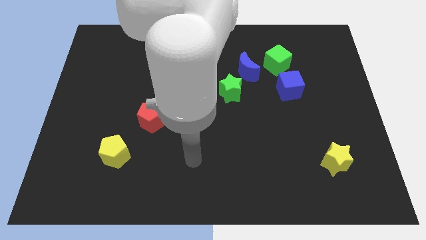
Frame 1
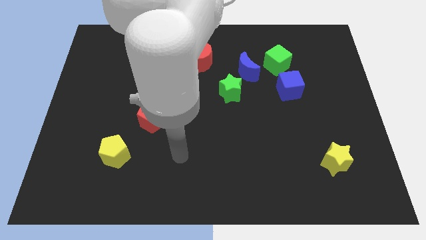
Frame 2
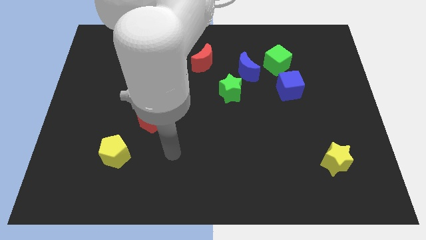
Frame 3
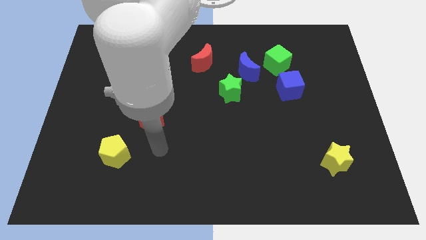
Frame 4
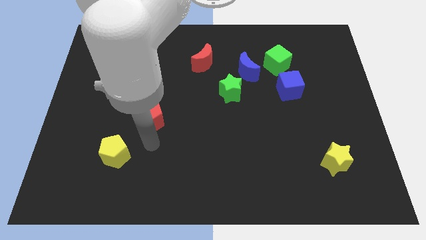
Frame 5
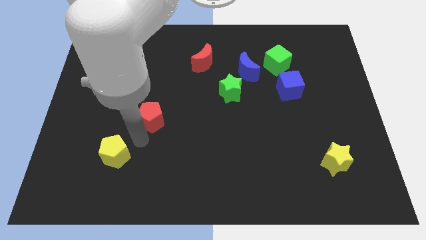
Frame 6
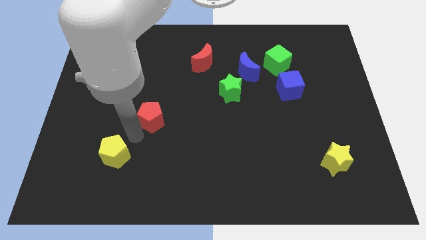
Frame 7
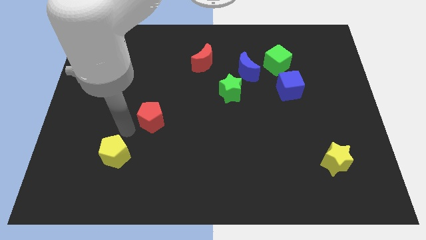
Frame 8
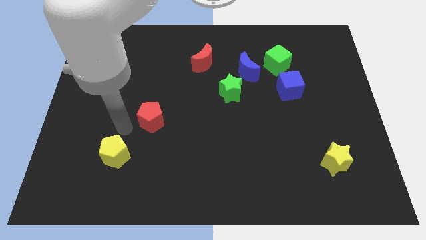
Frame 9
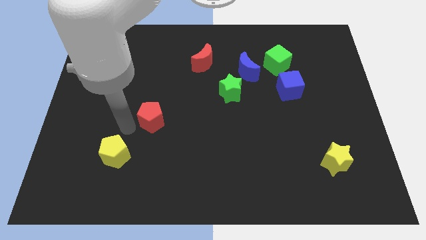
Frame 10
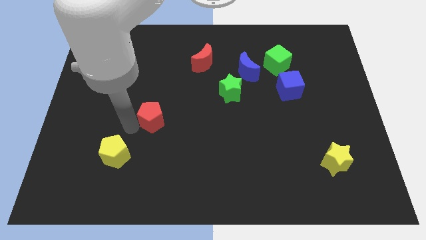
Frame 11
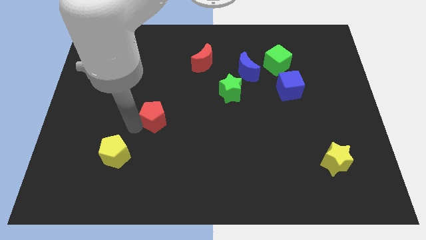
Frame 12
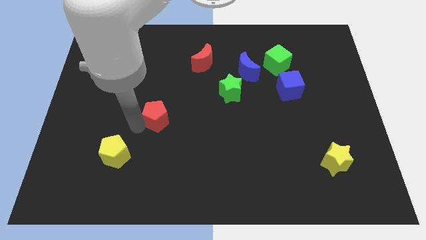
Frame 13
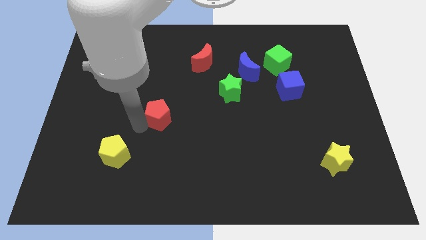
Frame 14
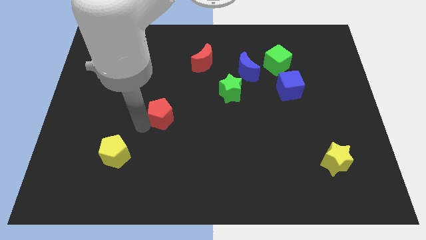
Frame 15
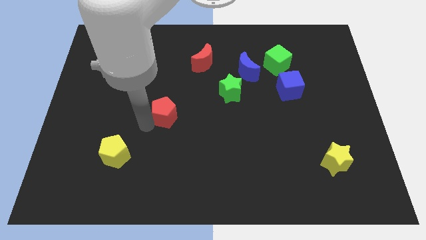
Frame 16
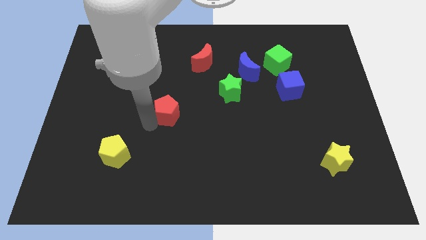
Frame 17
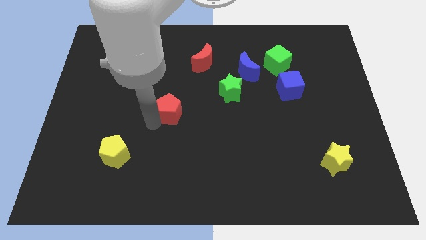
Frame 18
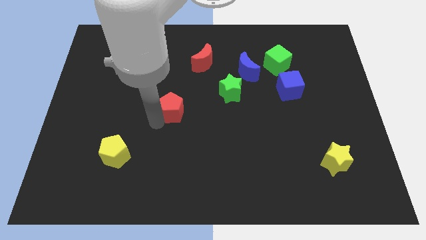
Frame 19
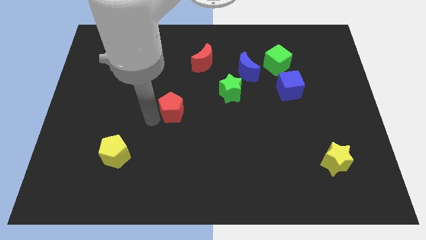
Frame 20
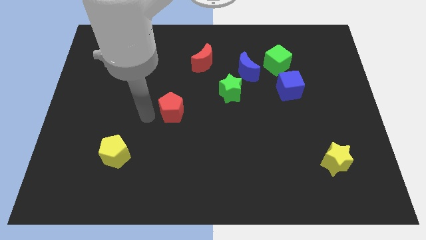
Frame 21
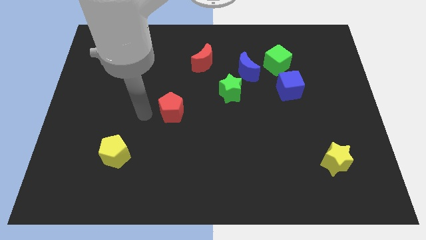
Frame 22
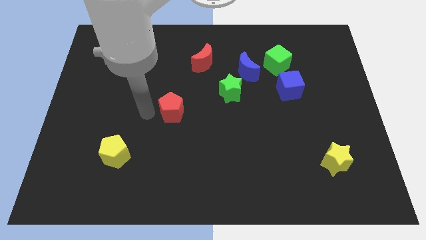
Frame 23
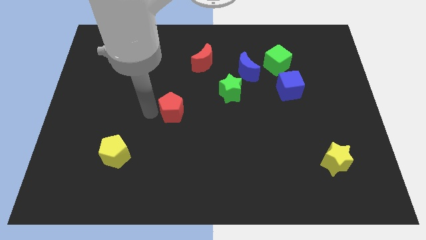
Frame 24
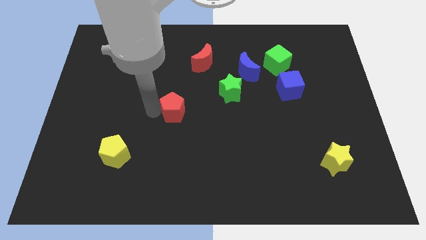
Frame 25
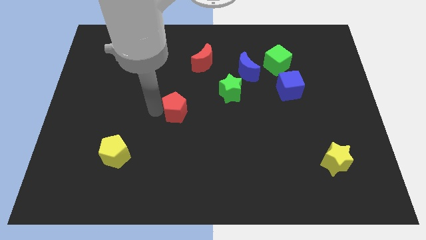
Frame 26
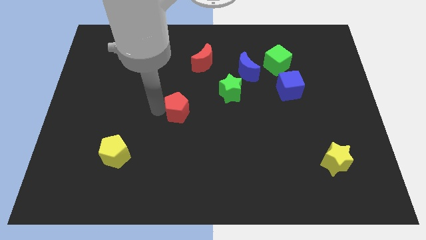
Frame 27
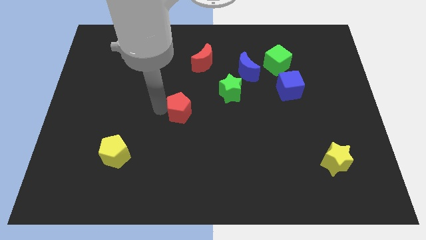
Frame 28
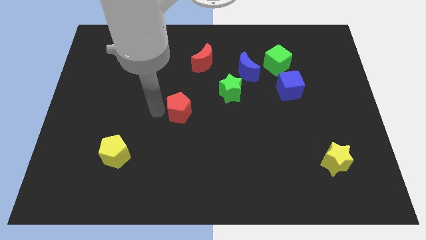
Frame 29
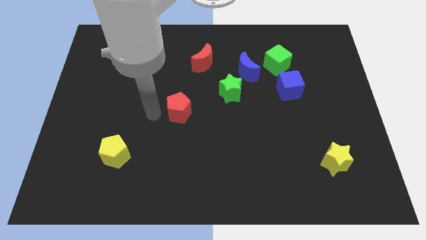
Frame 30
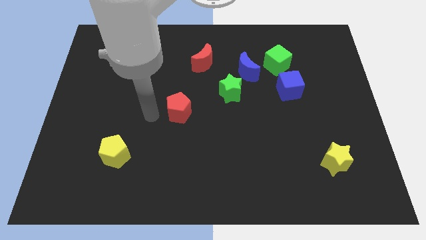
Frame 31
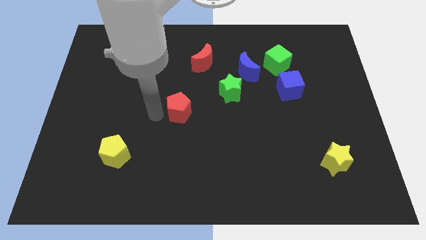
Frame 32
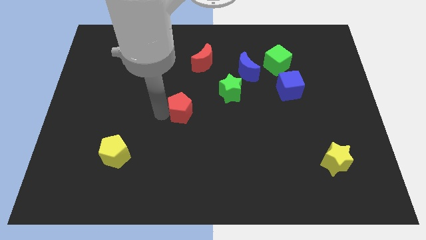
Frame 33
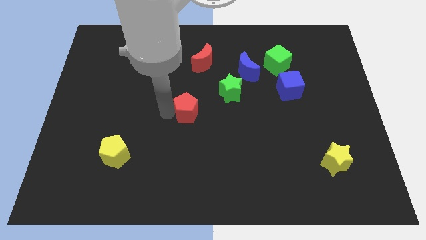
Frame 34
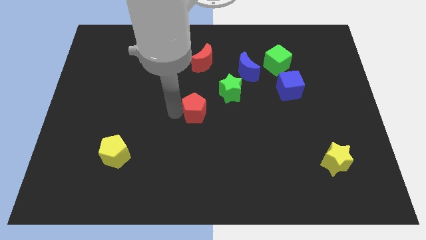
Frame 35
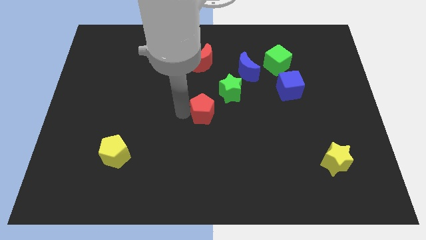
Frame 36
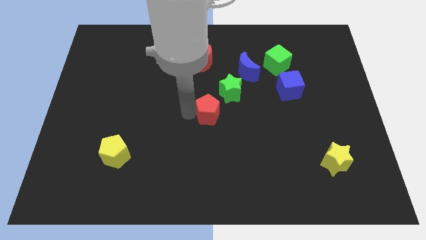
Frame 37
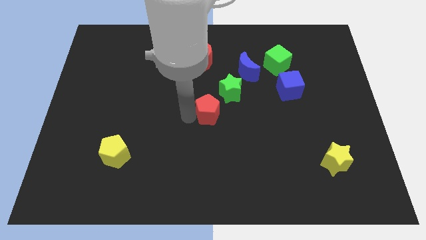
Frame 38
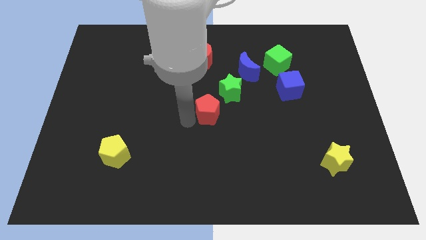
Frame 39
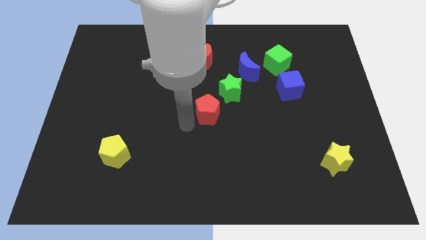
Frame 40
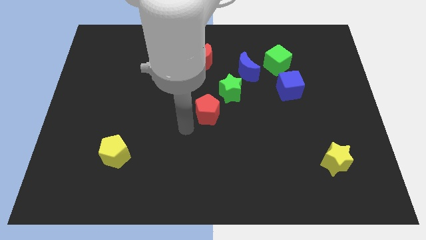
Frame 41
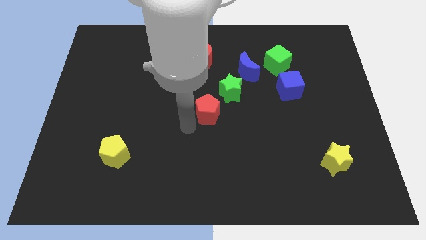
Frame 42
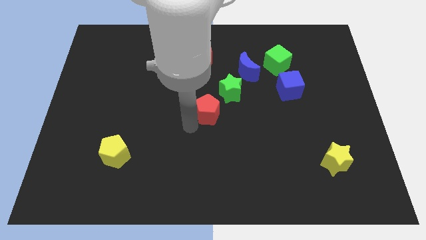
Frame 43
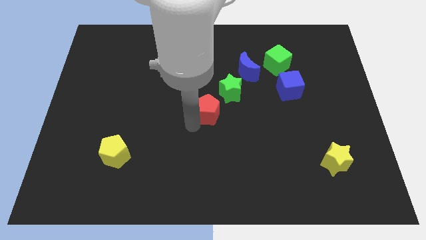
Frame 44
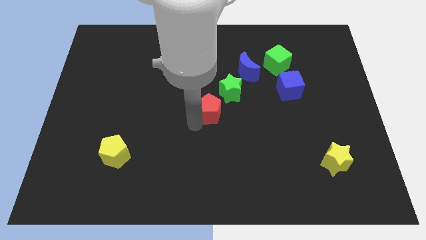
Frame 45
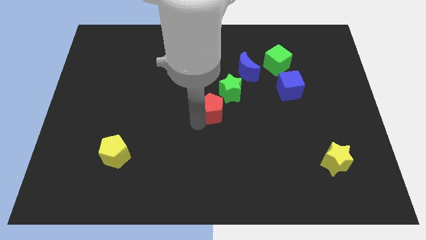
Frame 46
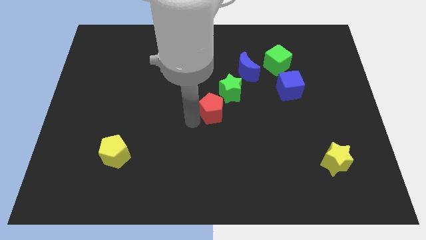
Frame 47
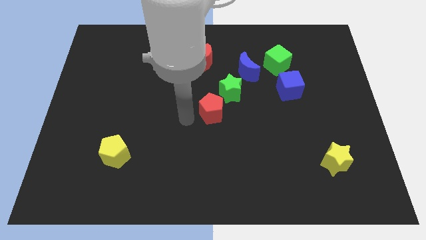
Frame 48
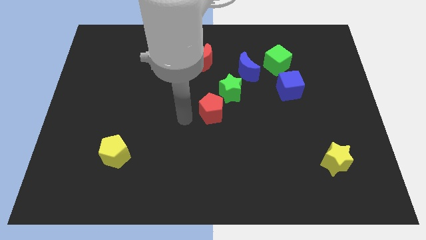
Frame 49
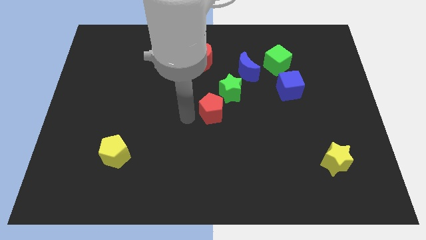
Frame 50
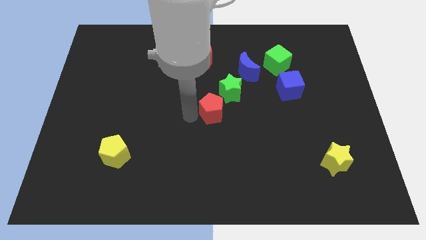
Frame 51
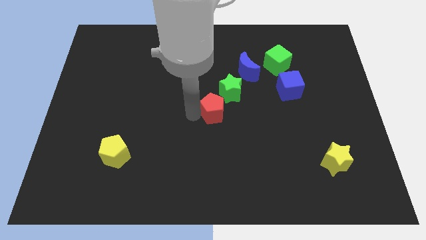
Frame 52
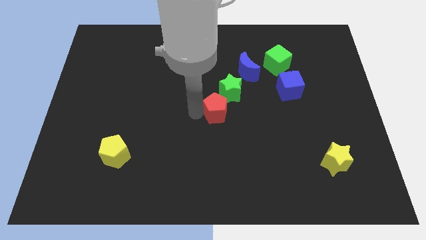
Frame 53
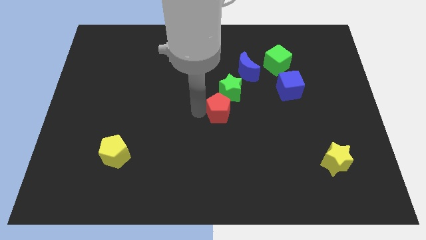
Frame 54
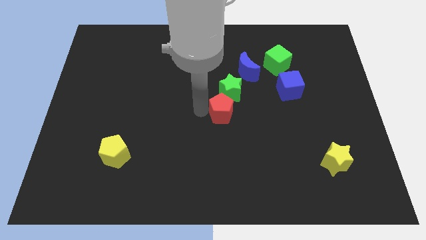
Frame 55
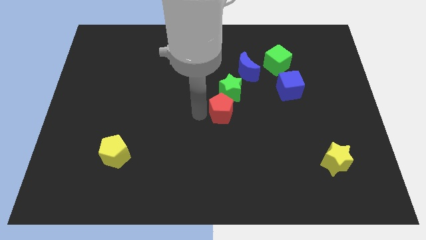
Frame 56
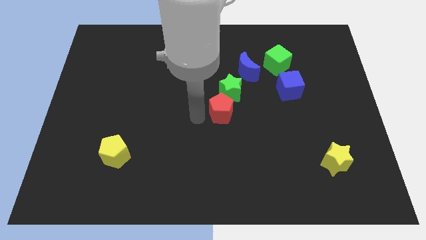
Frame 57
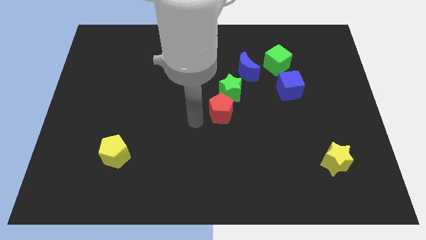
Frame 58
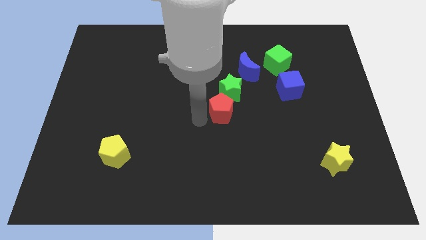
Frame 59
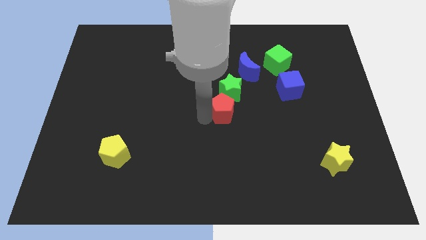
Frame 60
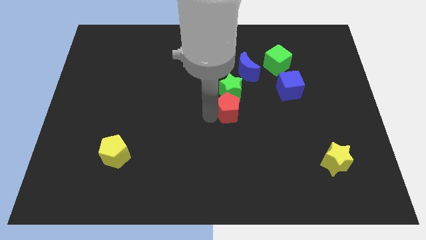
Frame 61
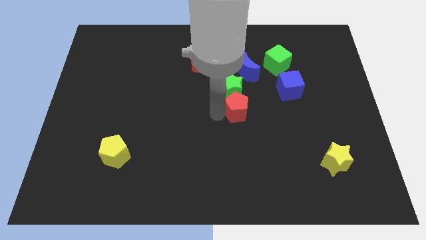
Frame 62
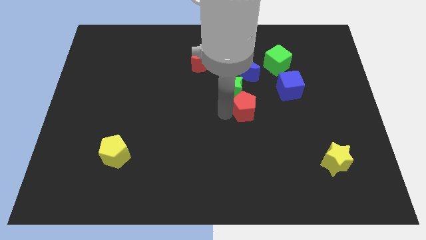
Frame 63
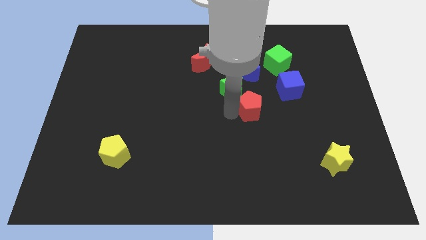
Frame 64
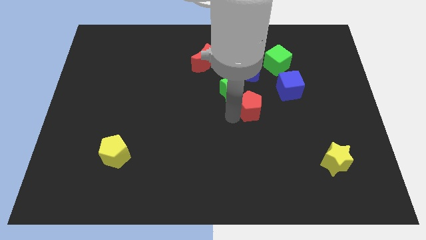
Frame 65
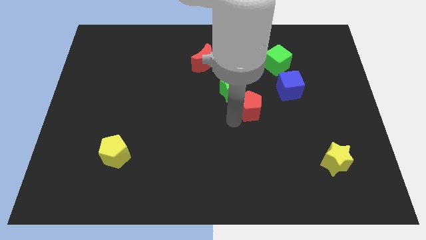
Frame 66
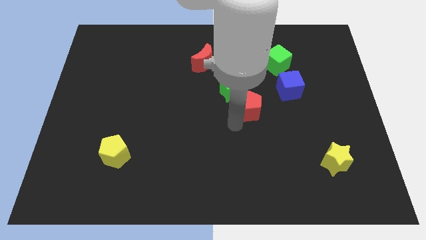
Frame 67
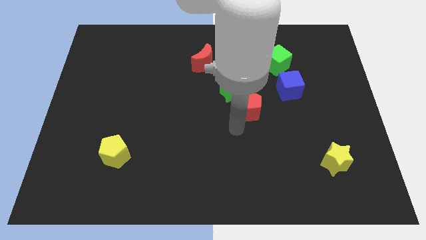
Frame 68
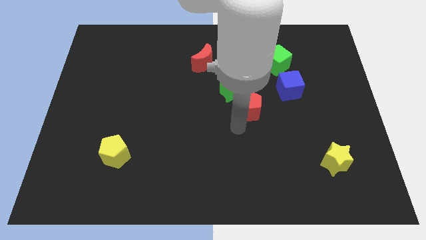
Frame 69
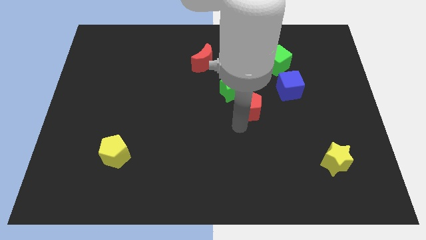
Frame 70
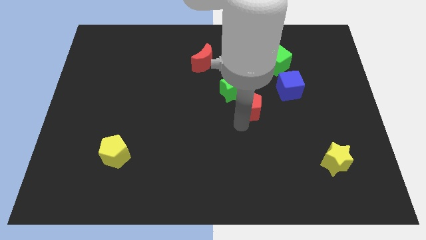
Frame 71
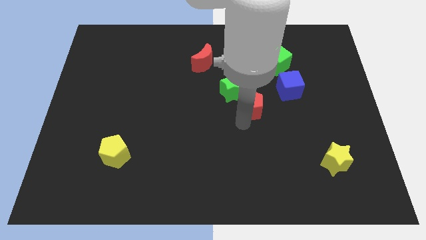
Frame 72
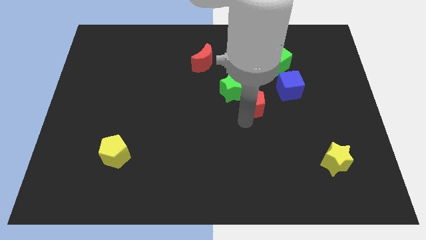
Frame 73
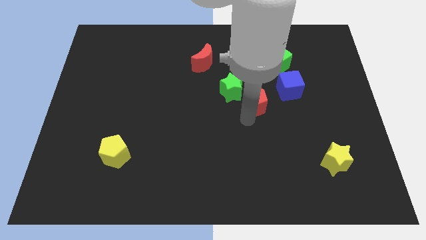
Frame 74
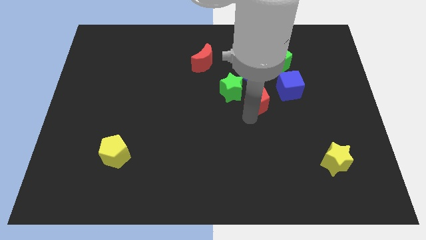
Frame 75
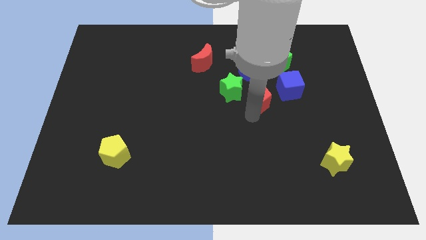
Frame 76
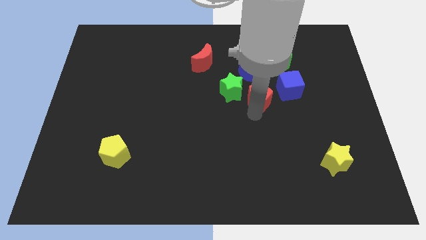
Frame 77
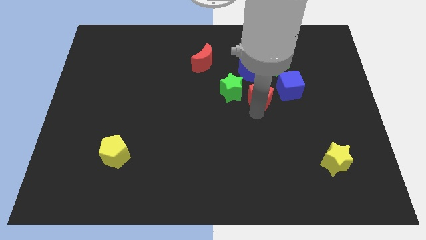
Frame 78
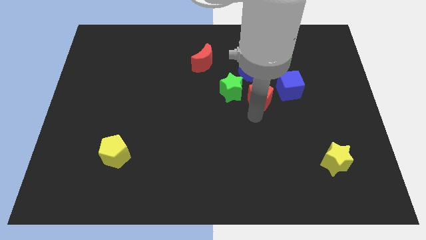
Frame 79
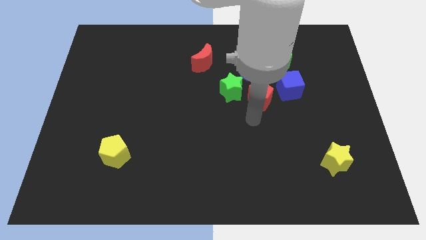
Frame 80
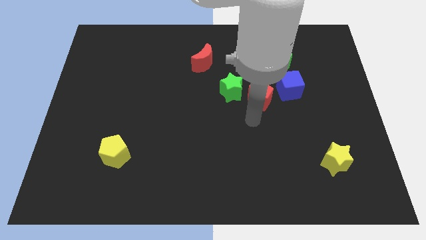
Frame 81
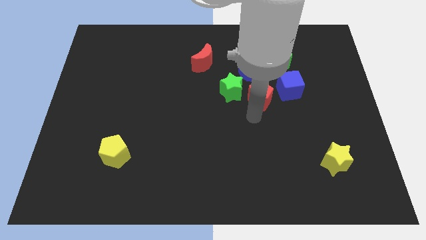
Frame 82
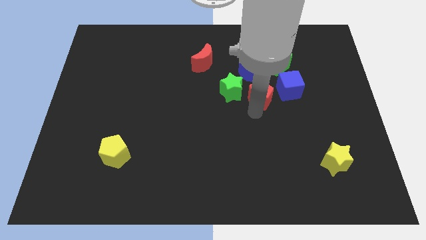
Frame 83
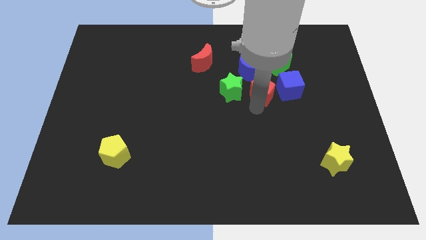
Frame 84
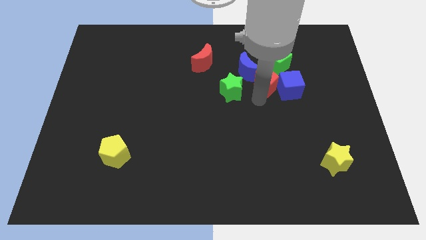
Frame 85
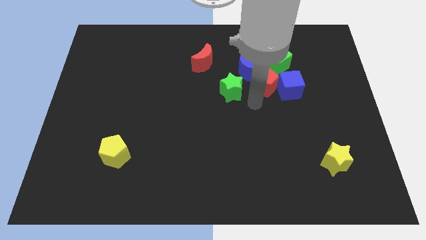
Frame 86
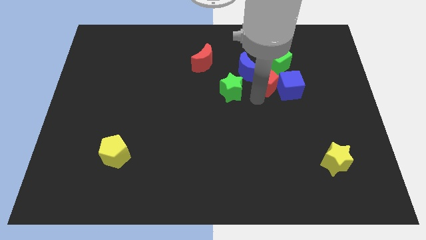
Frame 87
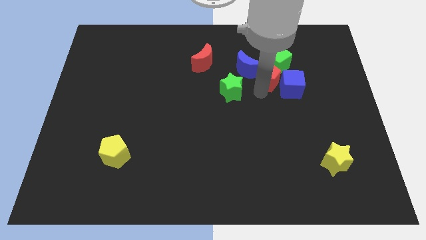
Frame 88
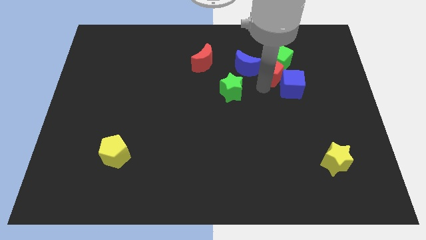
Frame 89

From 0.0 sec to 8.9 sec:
move the red pentagon towards the green cube
